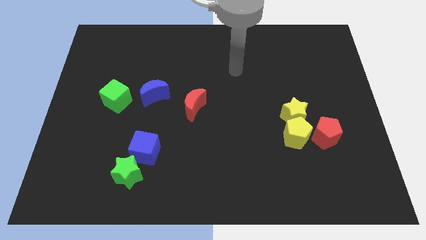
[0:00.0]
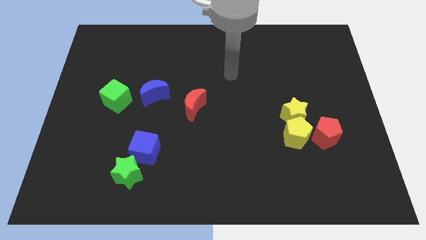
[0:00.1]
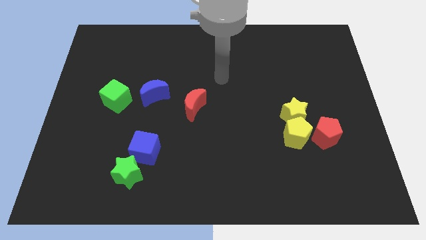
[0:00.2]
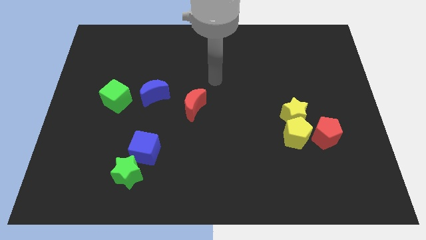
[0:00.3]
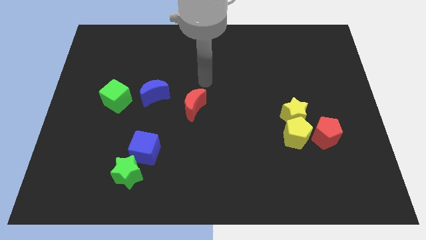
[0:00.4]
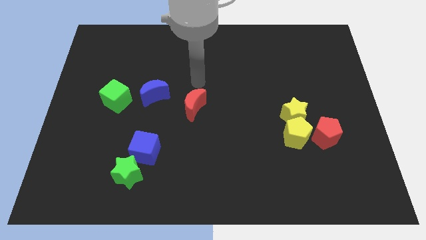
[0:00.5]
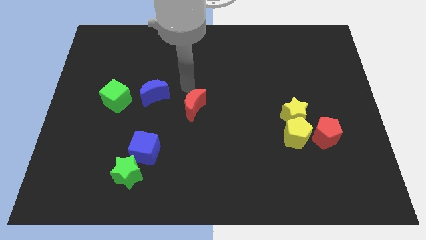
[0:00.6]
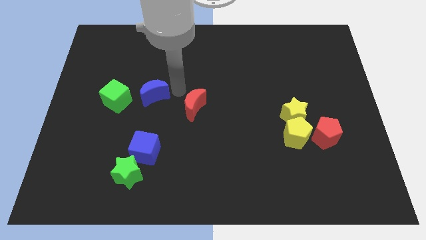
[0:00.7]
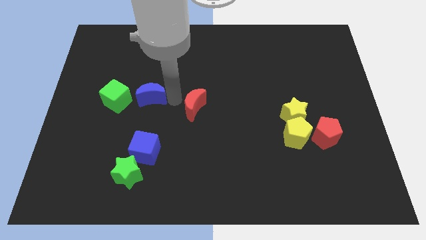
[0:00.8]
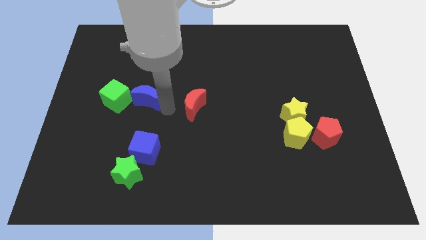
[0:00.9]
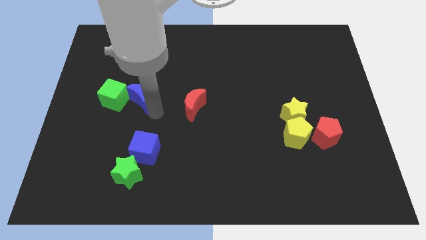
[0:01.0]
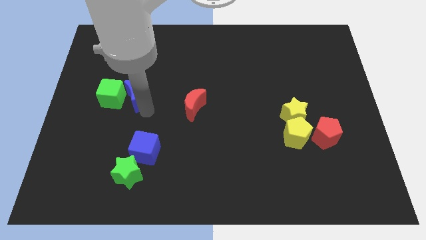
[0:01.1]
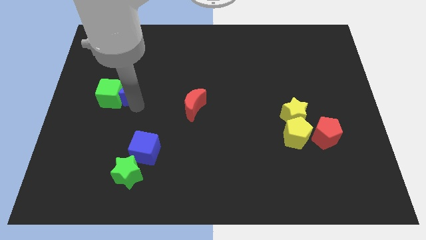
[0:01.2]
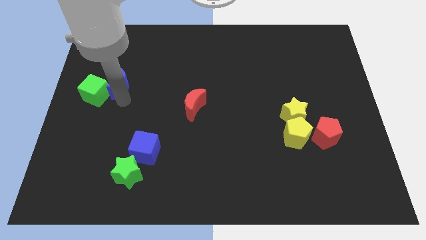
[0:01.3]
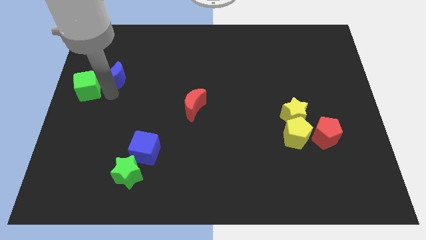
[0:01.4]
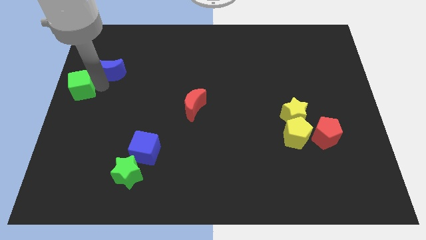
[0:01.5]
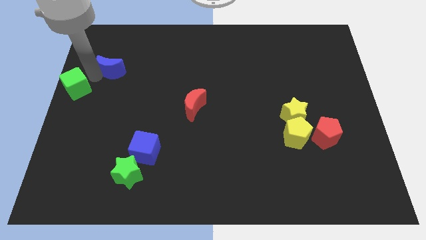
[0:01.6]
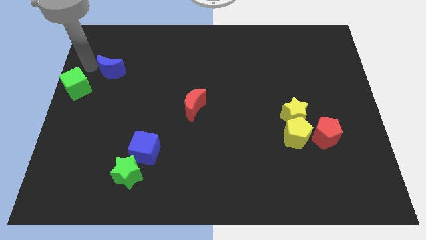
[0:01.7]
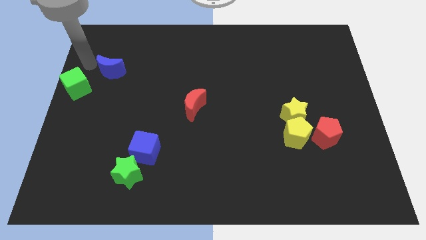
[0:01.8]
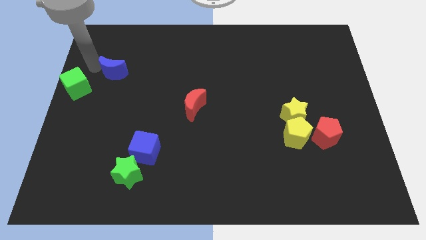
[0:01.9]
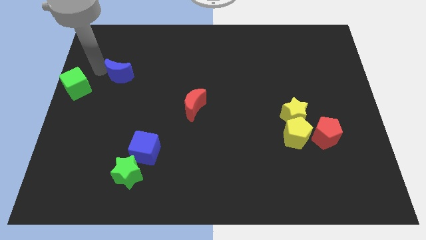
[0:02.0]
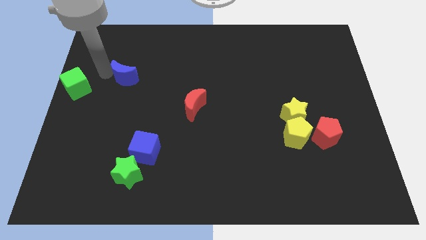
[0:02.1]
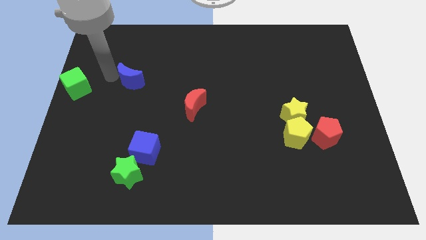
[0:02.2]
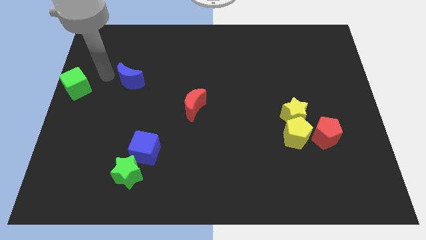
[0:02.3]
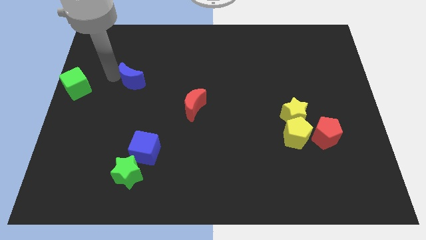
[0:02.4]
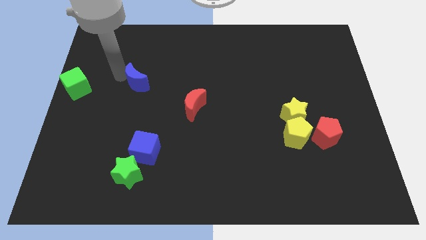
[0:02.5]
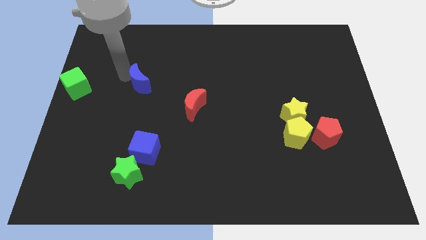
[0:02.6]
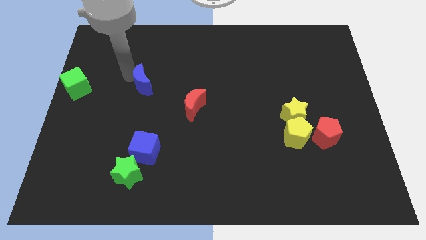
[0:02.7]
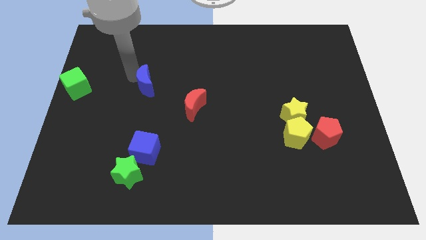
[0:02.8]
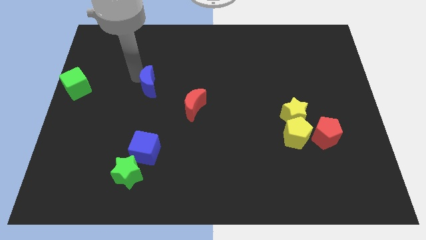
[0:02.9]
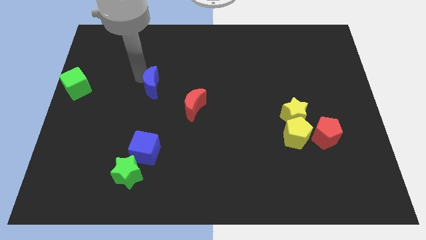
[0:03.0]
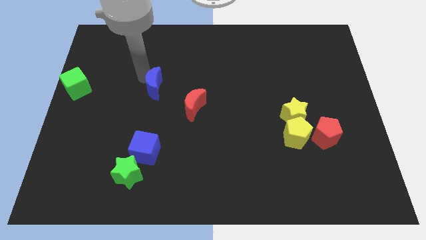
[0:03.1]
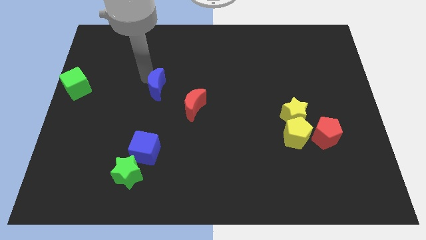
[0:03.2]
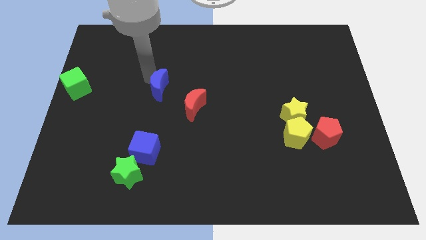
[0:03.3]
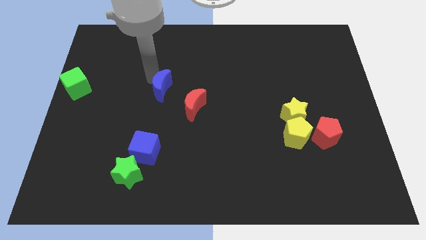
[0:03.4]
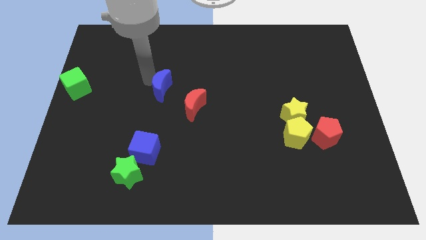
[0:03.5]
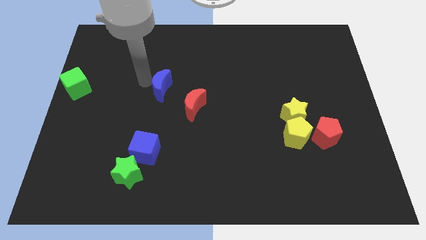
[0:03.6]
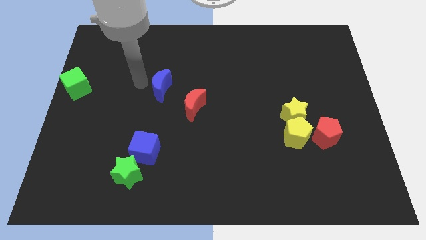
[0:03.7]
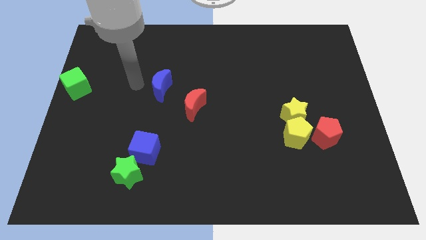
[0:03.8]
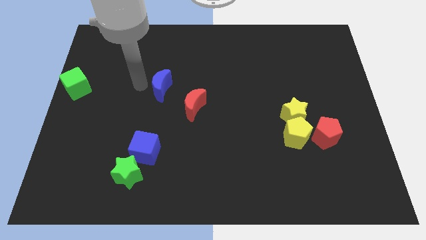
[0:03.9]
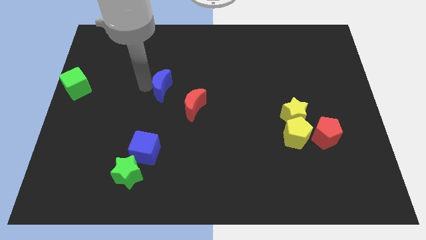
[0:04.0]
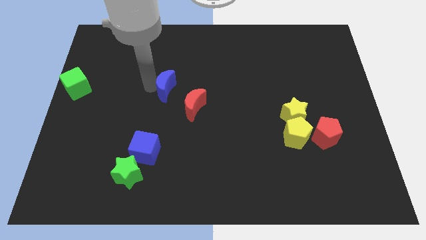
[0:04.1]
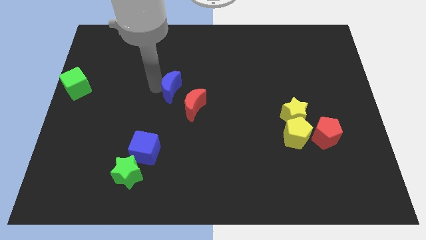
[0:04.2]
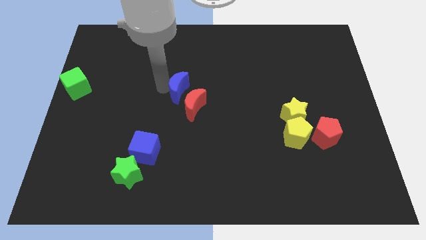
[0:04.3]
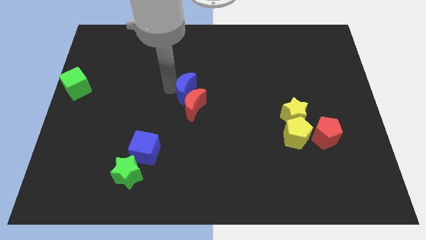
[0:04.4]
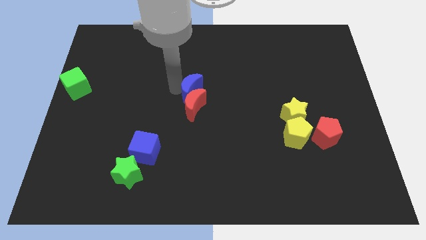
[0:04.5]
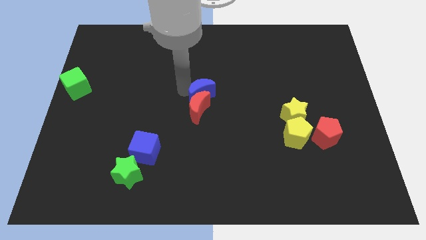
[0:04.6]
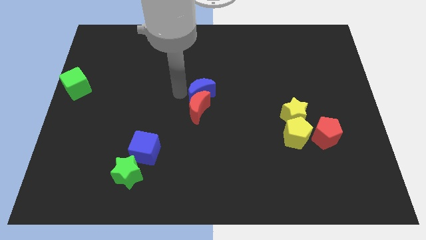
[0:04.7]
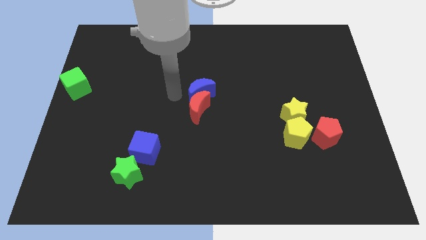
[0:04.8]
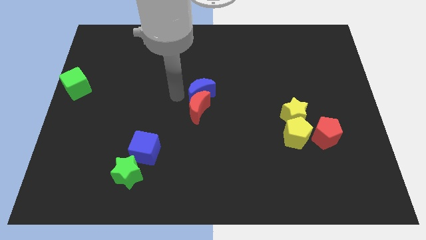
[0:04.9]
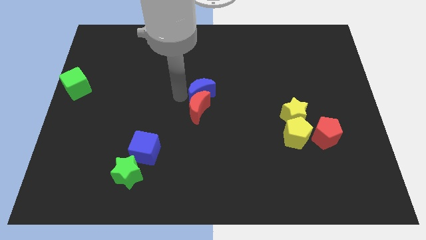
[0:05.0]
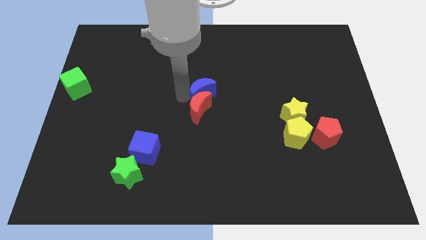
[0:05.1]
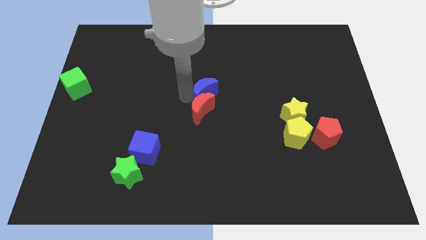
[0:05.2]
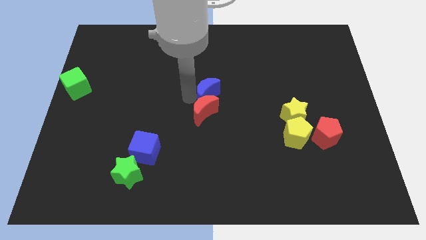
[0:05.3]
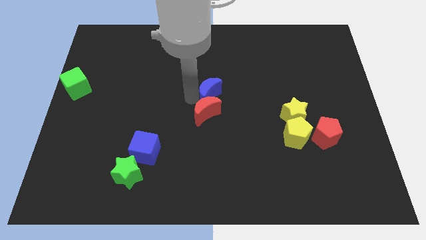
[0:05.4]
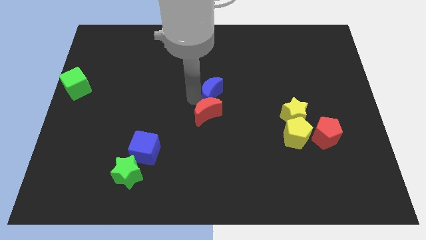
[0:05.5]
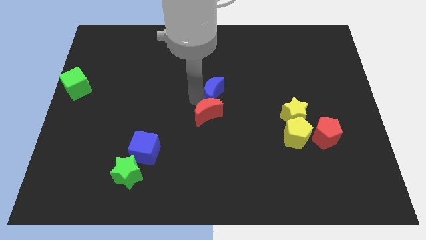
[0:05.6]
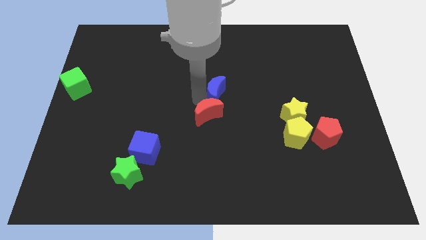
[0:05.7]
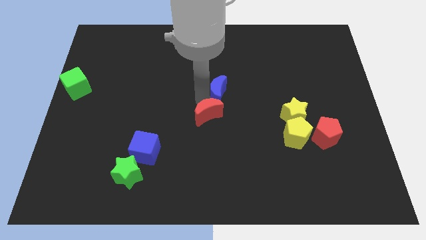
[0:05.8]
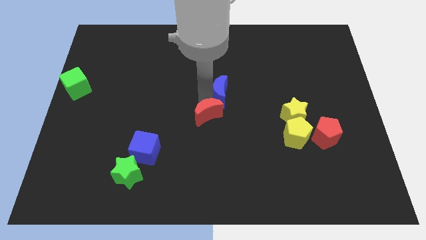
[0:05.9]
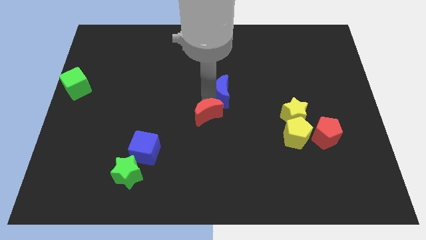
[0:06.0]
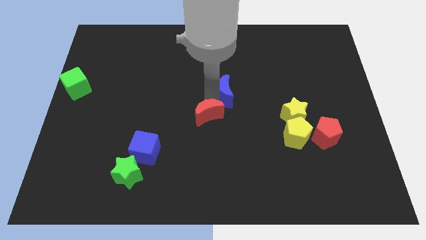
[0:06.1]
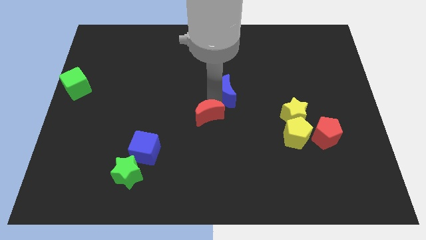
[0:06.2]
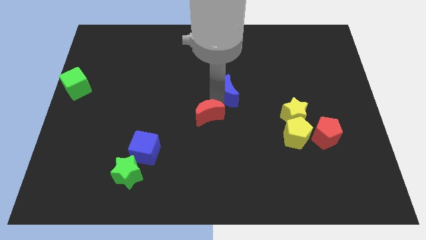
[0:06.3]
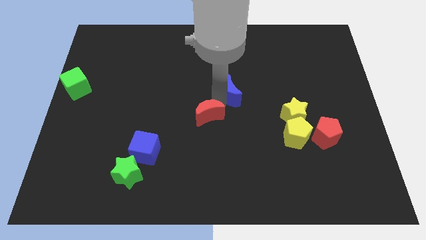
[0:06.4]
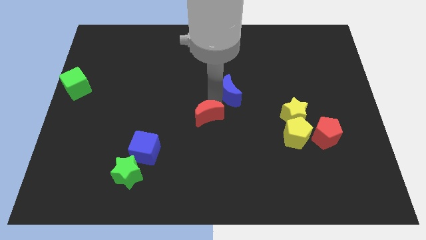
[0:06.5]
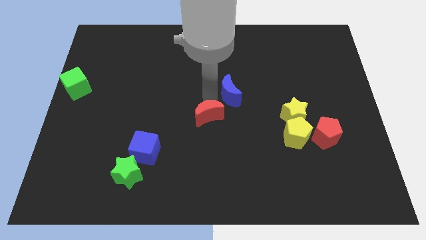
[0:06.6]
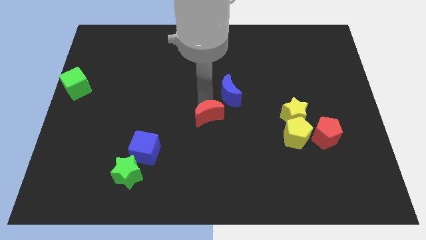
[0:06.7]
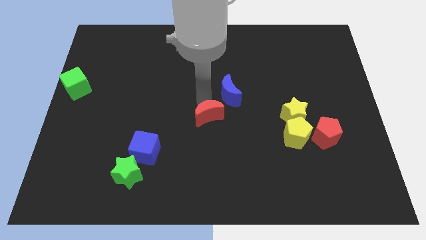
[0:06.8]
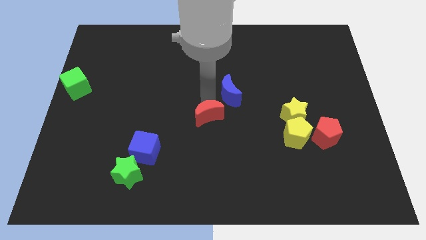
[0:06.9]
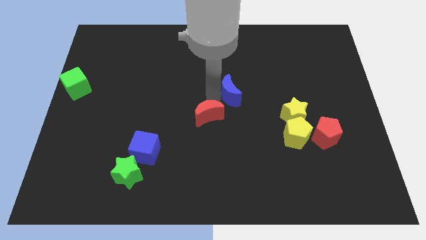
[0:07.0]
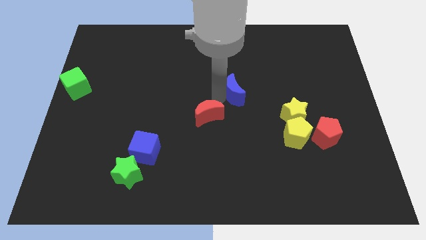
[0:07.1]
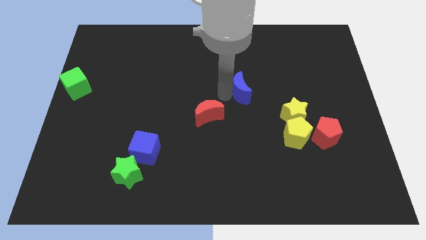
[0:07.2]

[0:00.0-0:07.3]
slide the blue moon to the right

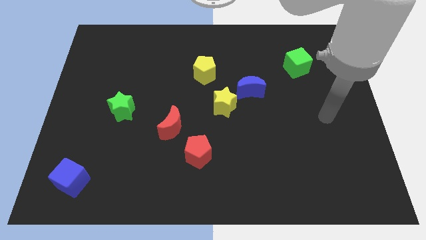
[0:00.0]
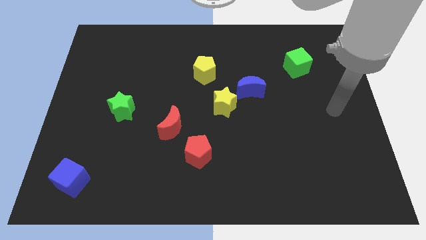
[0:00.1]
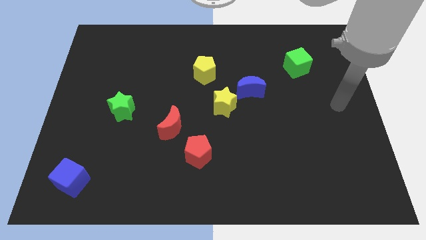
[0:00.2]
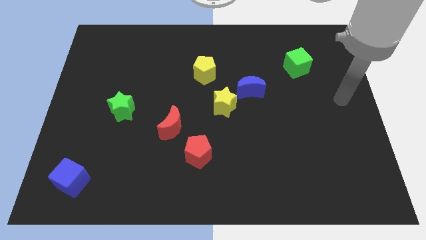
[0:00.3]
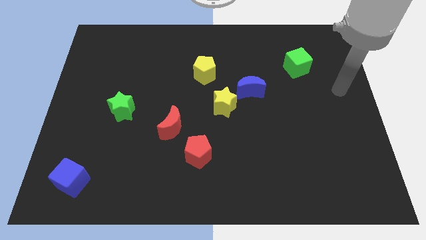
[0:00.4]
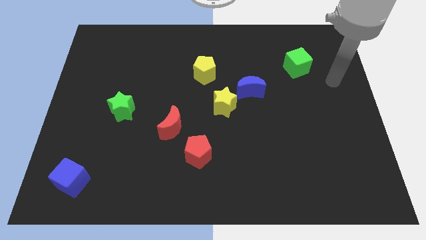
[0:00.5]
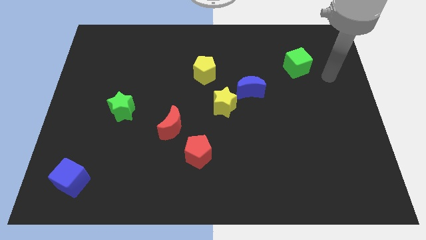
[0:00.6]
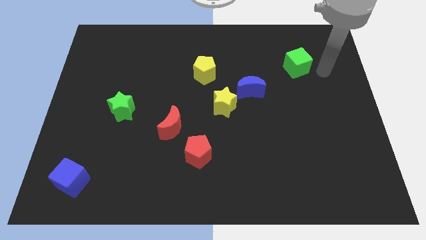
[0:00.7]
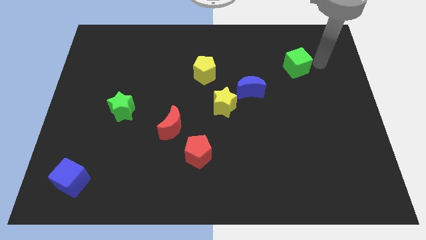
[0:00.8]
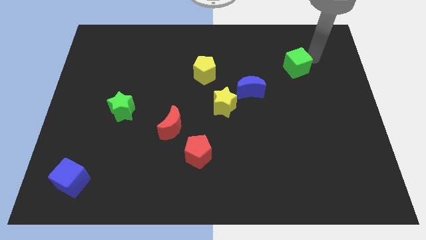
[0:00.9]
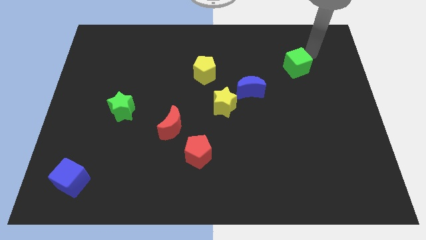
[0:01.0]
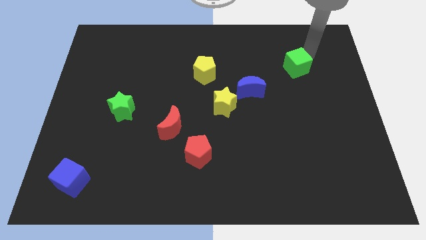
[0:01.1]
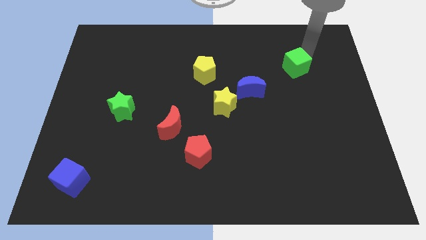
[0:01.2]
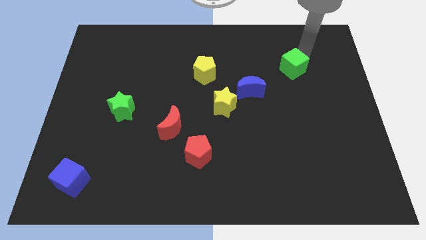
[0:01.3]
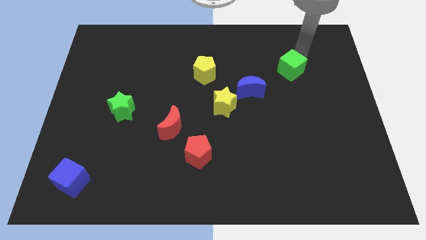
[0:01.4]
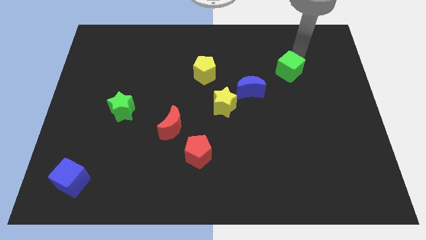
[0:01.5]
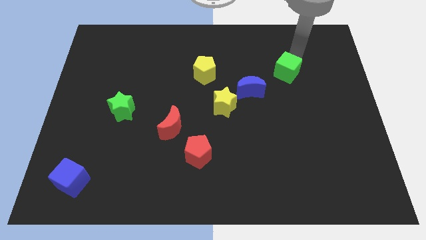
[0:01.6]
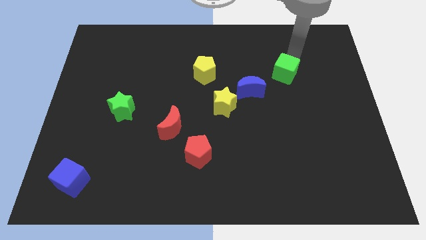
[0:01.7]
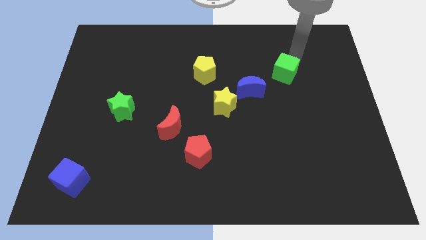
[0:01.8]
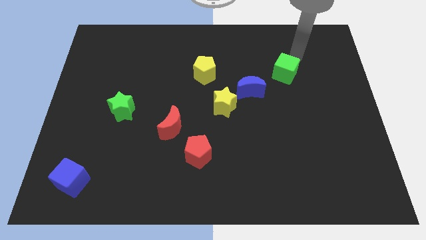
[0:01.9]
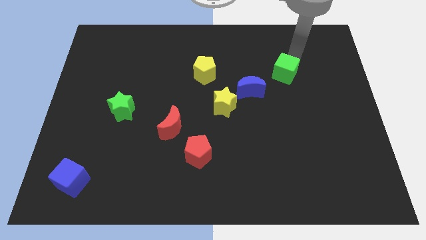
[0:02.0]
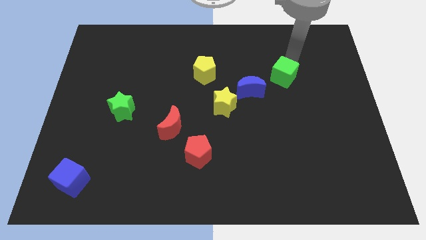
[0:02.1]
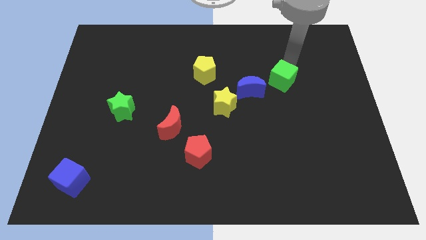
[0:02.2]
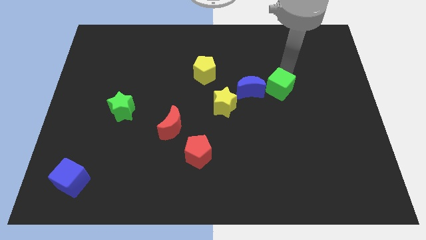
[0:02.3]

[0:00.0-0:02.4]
push the green cube downwards and then to the left slightly
